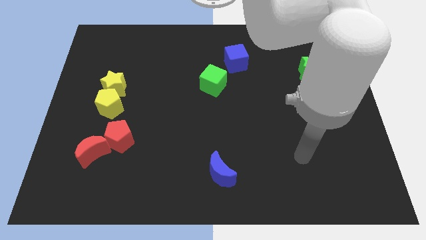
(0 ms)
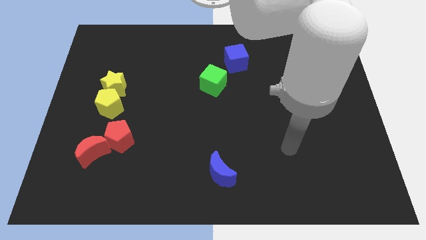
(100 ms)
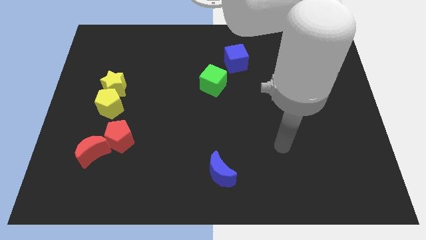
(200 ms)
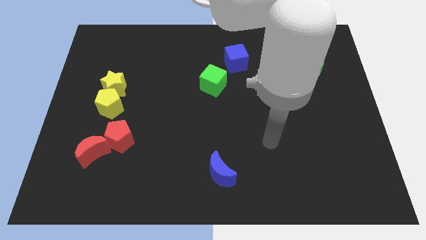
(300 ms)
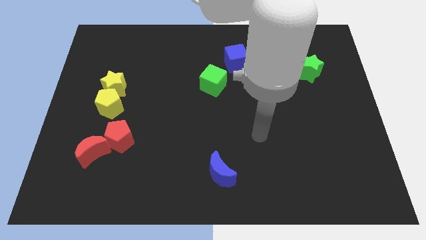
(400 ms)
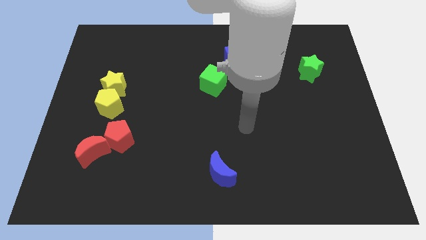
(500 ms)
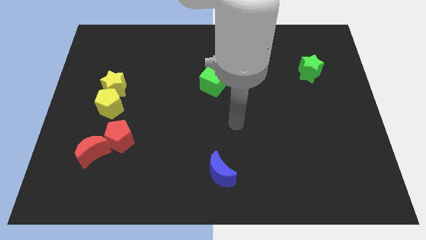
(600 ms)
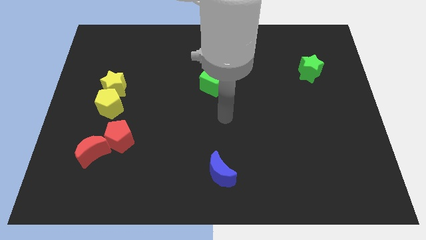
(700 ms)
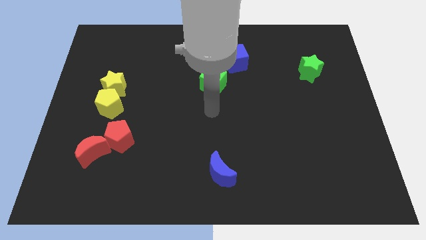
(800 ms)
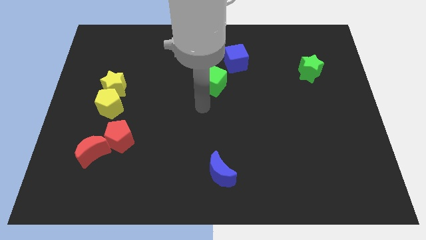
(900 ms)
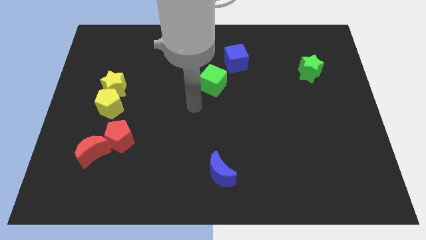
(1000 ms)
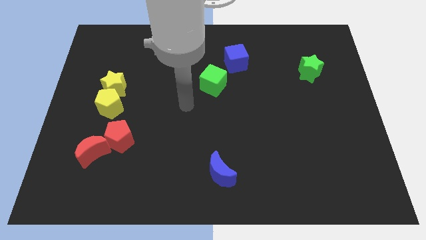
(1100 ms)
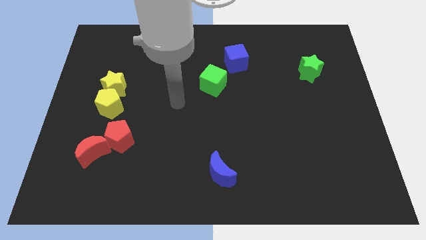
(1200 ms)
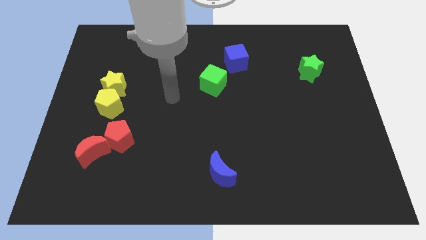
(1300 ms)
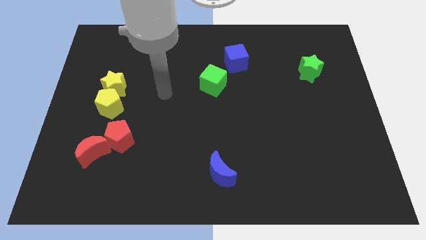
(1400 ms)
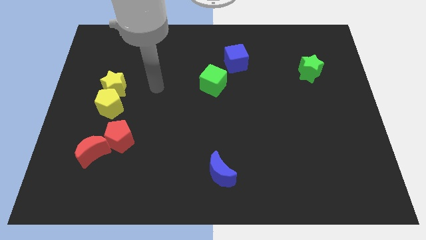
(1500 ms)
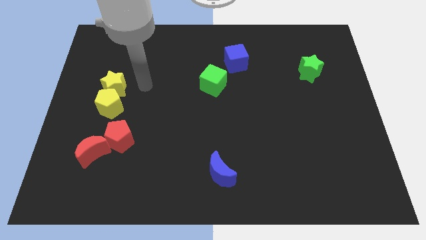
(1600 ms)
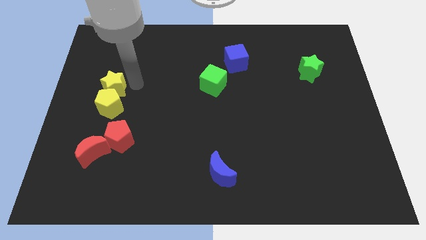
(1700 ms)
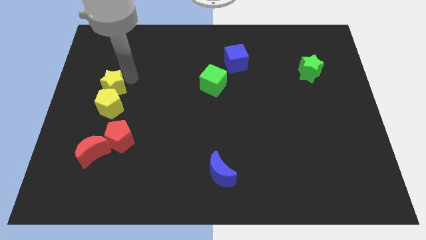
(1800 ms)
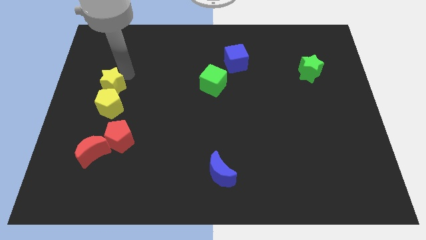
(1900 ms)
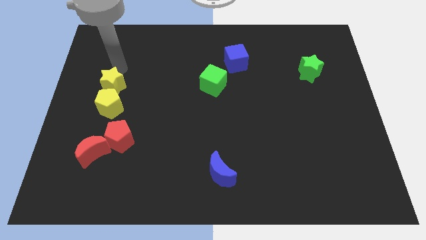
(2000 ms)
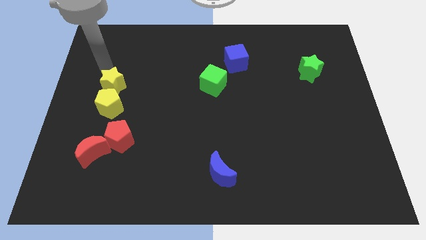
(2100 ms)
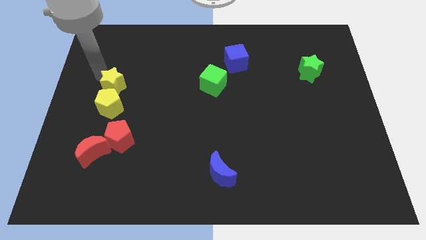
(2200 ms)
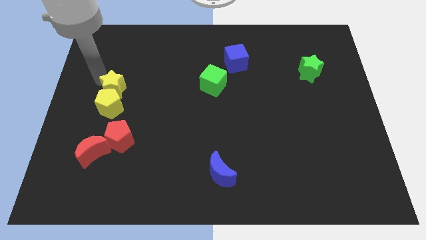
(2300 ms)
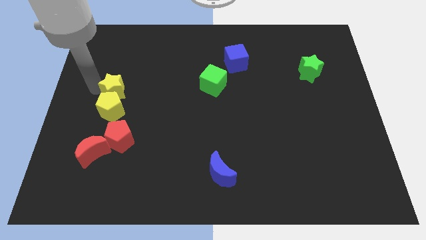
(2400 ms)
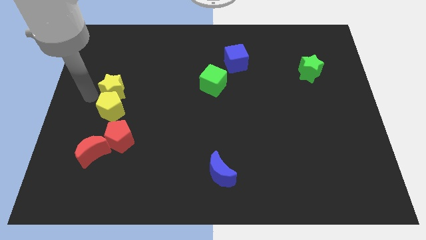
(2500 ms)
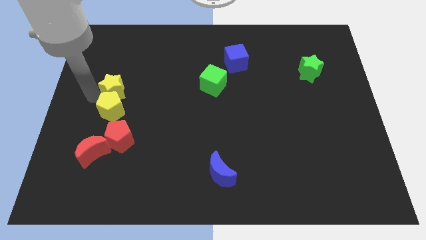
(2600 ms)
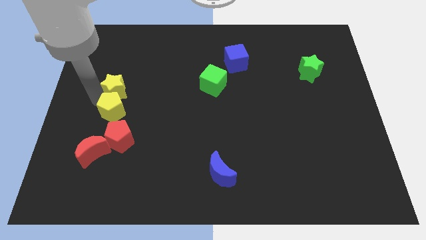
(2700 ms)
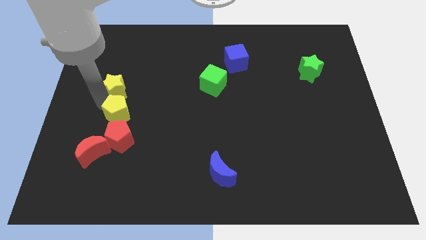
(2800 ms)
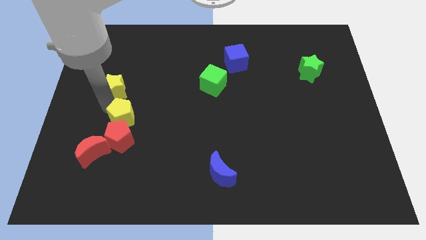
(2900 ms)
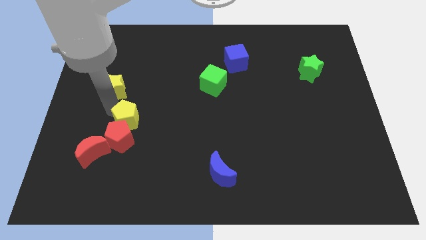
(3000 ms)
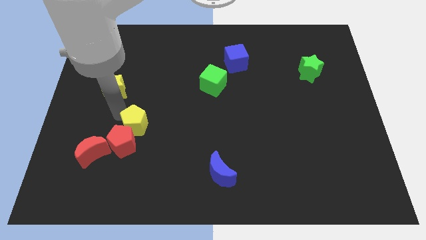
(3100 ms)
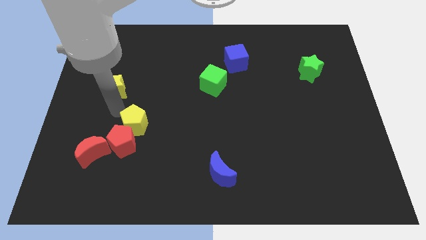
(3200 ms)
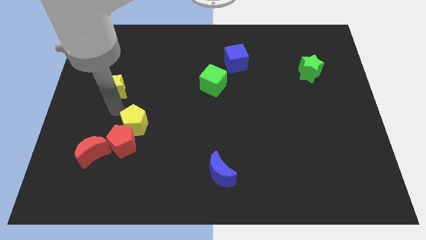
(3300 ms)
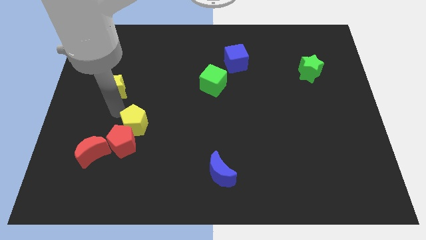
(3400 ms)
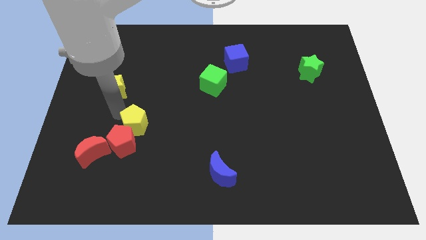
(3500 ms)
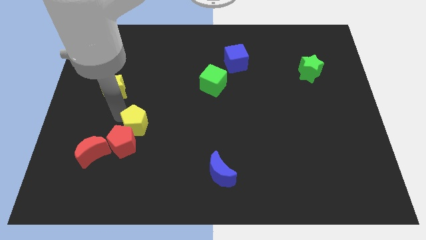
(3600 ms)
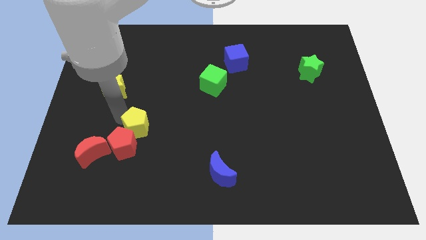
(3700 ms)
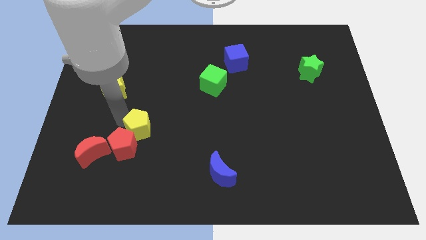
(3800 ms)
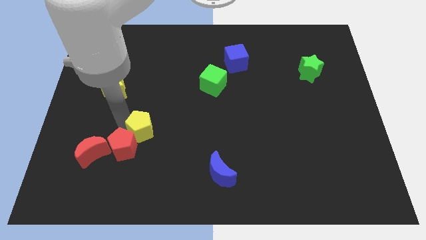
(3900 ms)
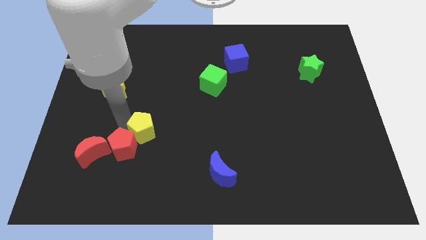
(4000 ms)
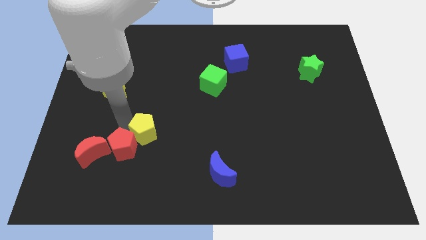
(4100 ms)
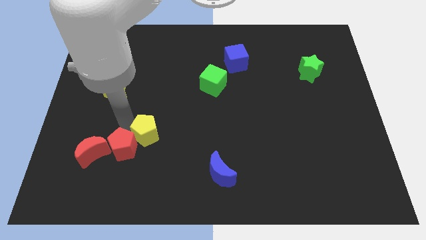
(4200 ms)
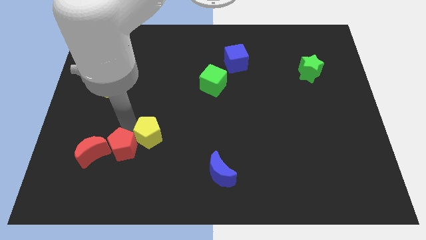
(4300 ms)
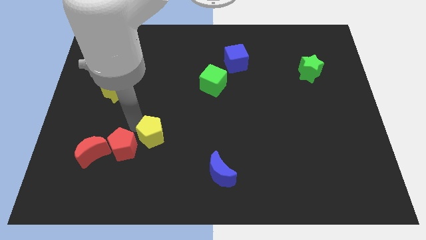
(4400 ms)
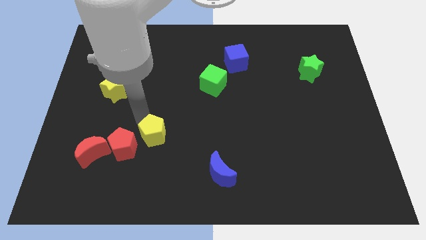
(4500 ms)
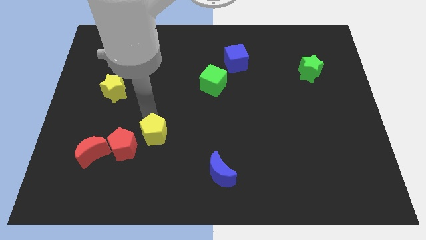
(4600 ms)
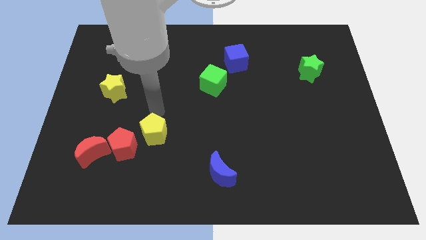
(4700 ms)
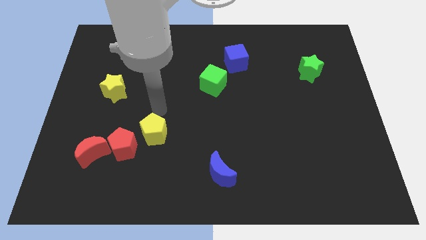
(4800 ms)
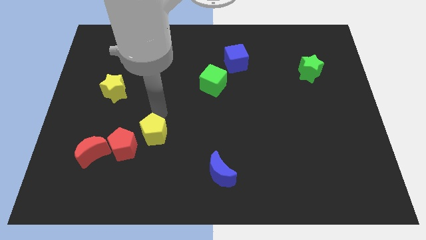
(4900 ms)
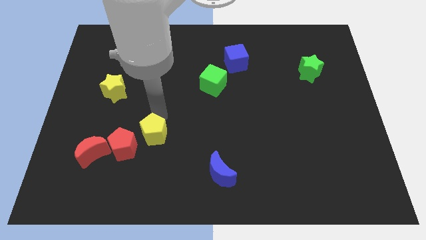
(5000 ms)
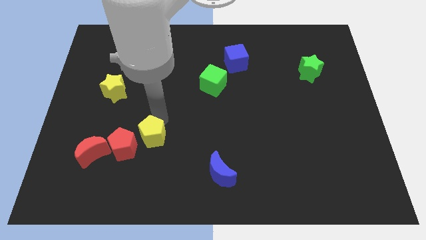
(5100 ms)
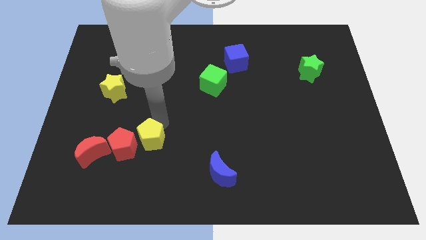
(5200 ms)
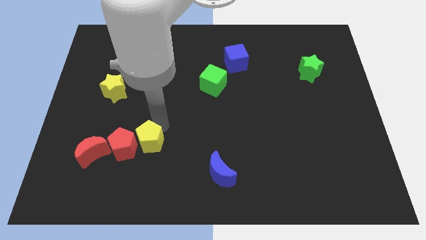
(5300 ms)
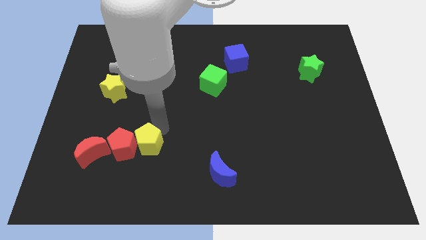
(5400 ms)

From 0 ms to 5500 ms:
put the yellow pentagon diagonally down and to the right of the red pentagon

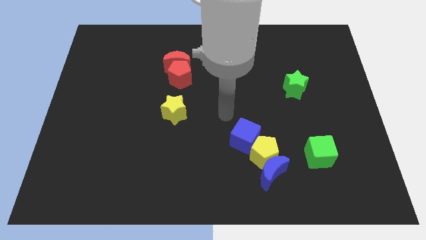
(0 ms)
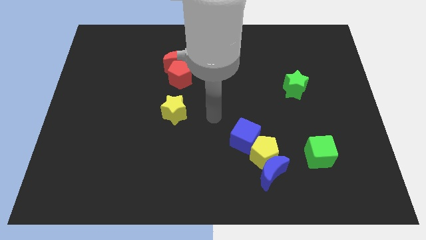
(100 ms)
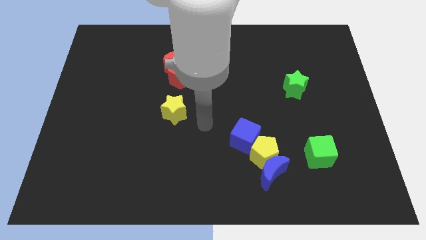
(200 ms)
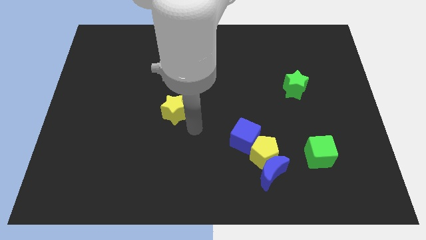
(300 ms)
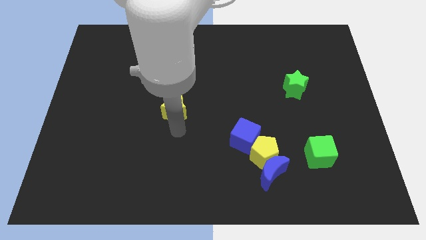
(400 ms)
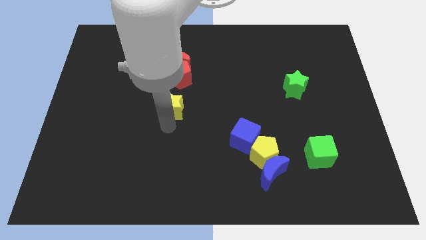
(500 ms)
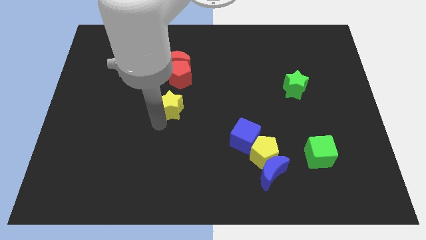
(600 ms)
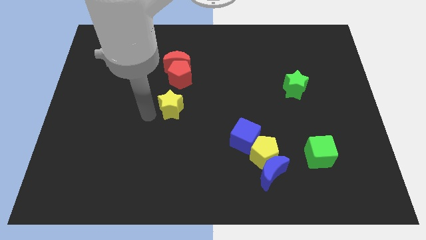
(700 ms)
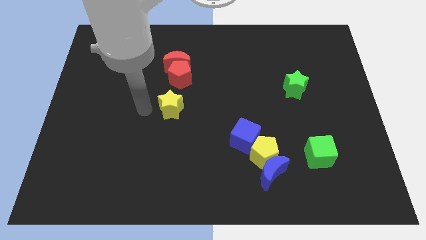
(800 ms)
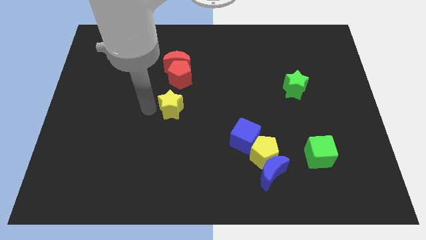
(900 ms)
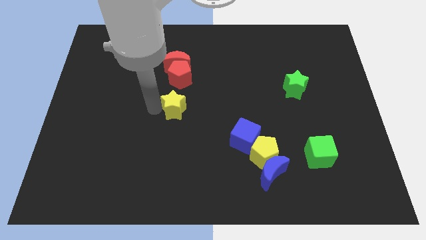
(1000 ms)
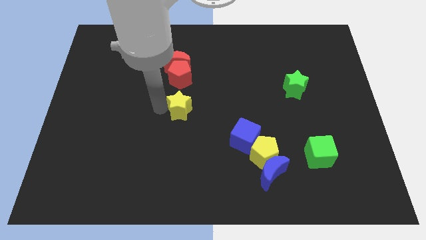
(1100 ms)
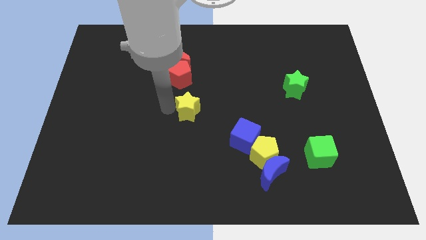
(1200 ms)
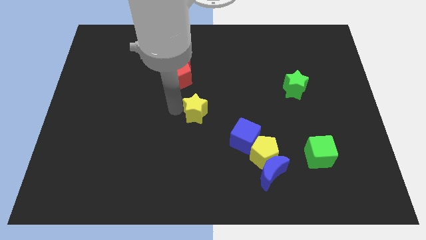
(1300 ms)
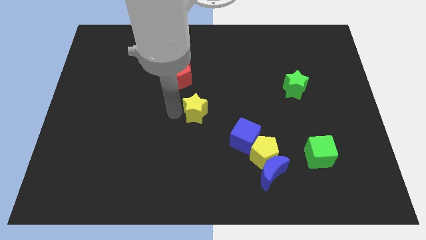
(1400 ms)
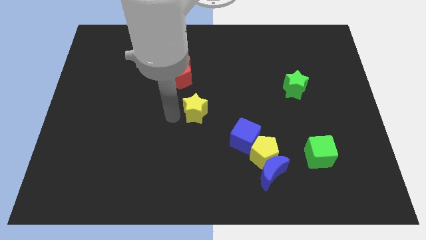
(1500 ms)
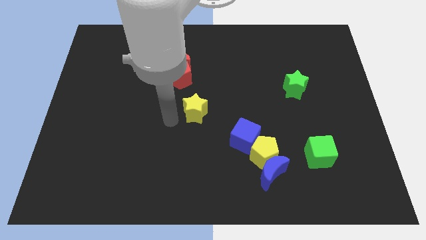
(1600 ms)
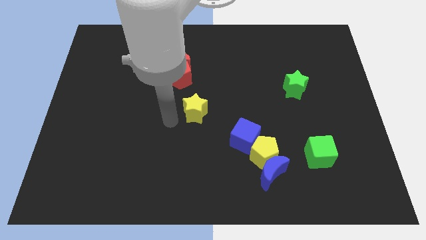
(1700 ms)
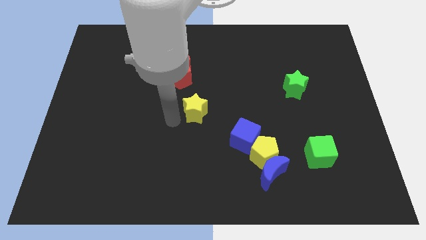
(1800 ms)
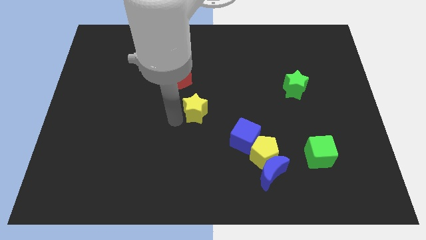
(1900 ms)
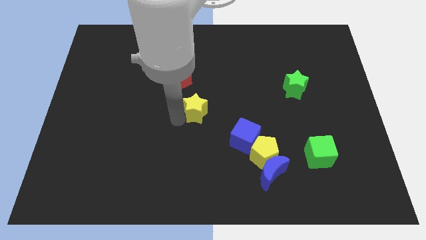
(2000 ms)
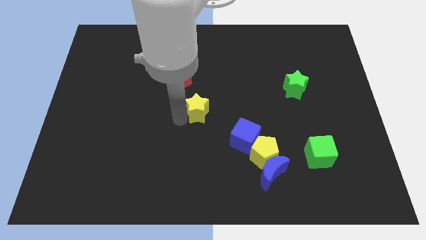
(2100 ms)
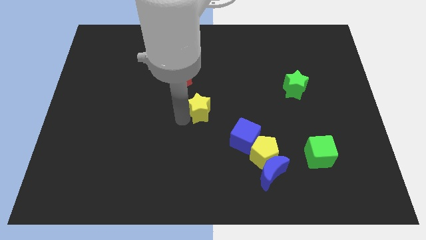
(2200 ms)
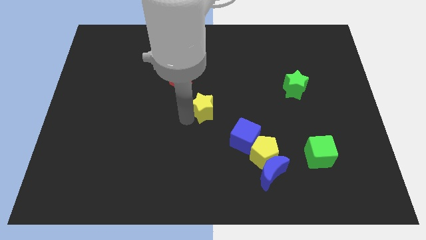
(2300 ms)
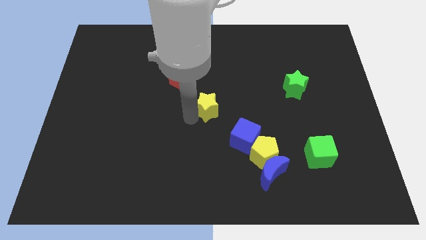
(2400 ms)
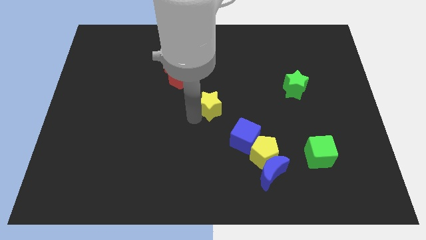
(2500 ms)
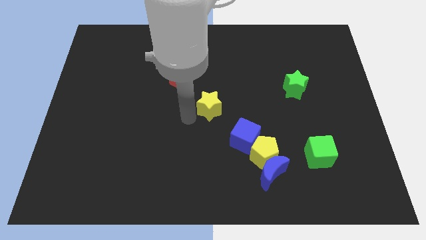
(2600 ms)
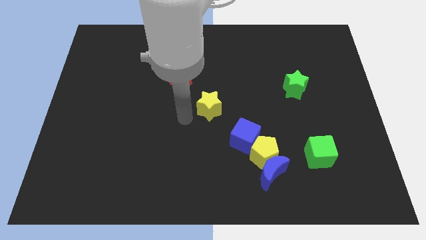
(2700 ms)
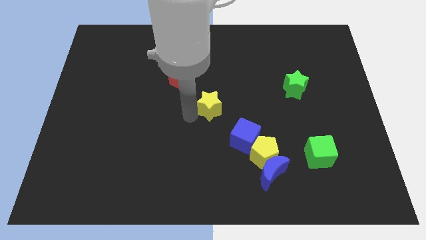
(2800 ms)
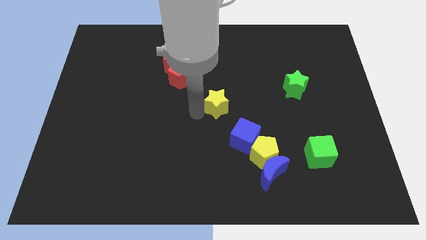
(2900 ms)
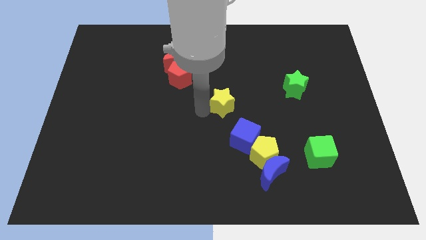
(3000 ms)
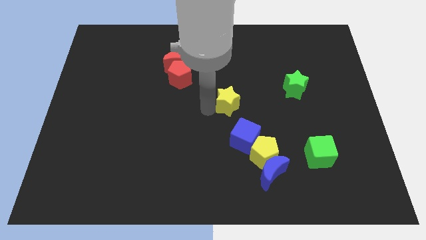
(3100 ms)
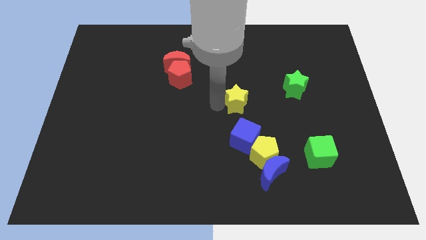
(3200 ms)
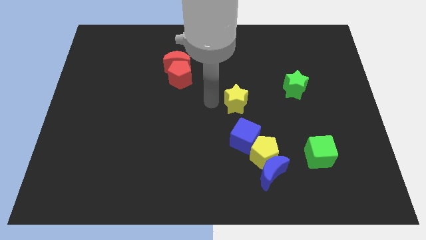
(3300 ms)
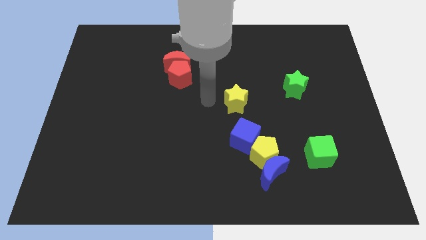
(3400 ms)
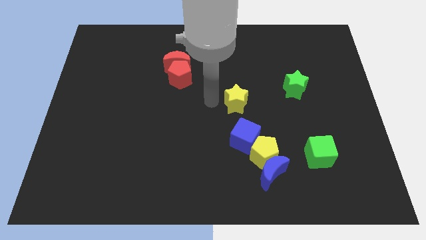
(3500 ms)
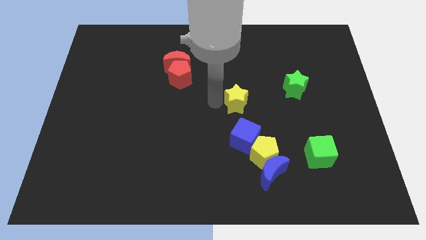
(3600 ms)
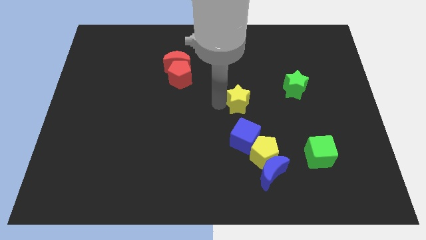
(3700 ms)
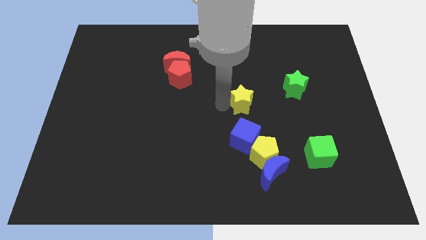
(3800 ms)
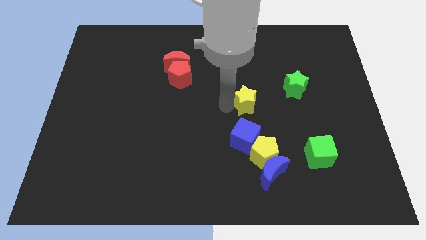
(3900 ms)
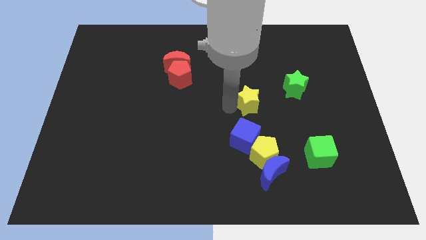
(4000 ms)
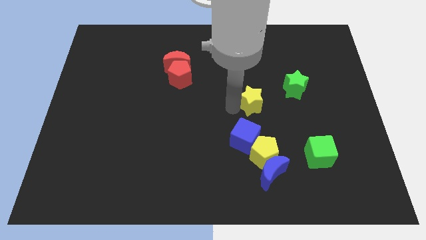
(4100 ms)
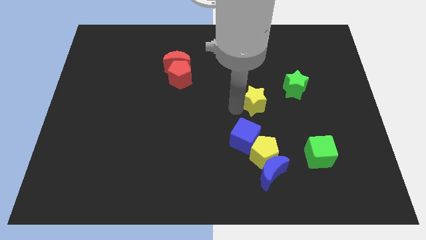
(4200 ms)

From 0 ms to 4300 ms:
move the yellow star diagonally down and to the left of the green star
